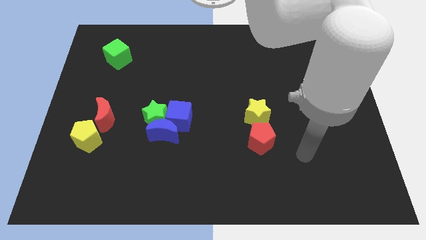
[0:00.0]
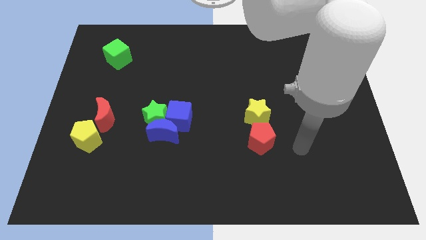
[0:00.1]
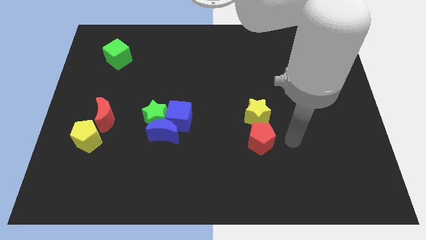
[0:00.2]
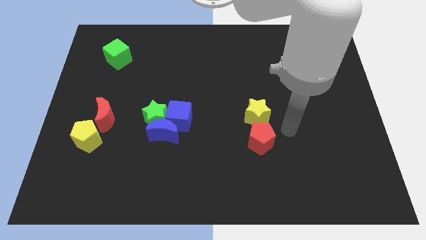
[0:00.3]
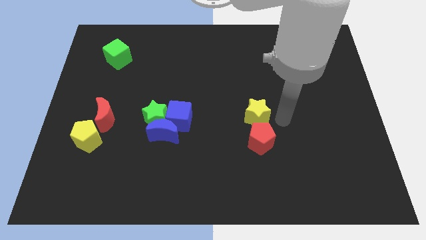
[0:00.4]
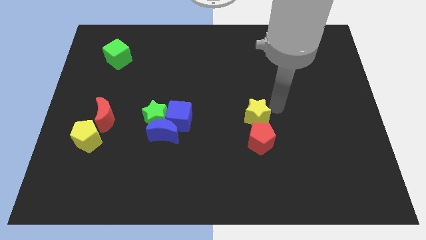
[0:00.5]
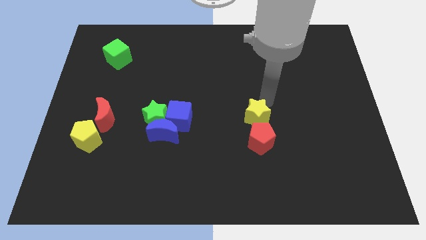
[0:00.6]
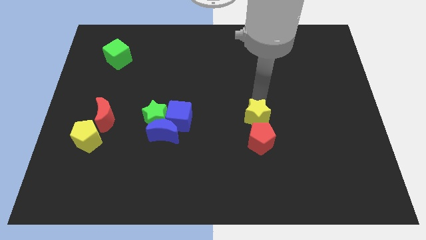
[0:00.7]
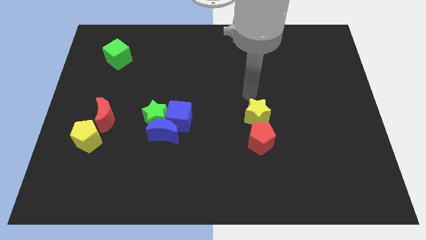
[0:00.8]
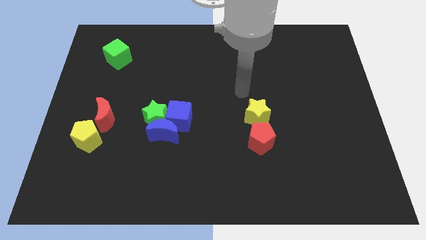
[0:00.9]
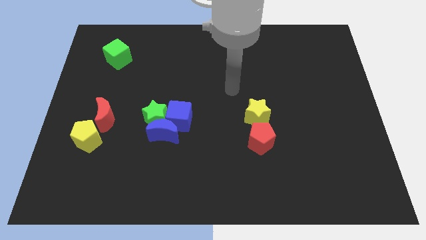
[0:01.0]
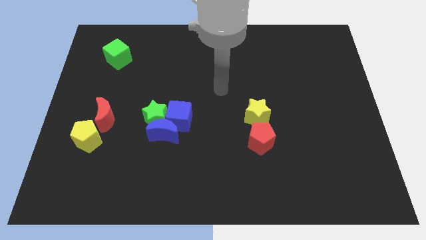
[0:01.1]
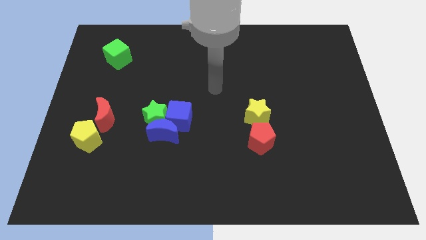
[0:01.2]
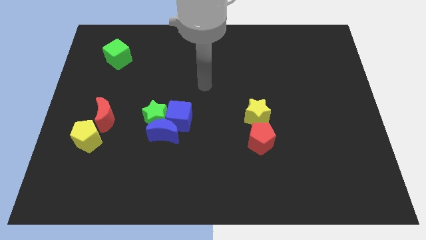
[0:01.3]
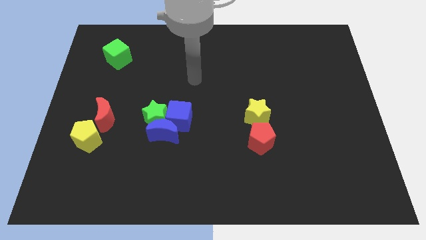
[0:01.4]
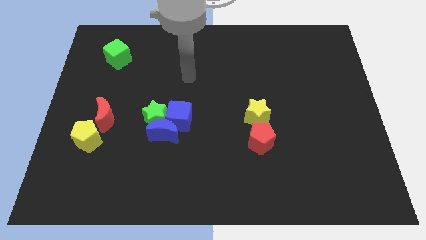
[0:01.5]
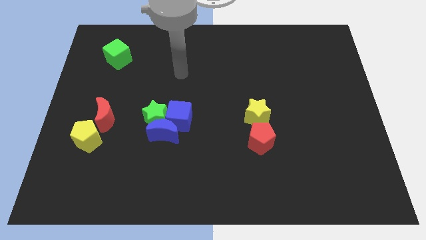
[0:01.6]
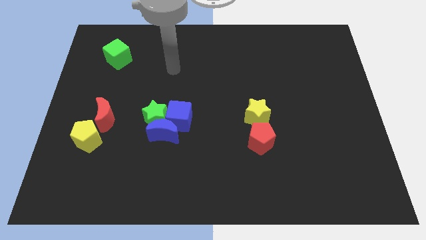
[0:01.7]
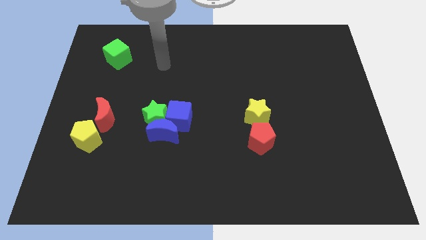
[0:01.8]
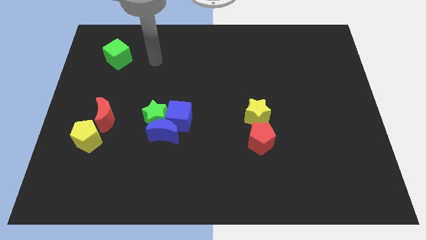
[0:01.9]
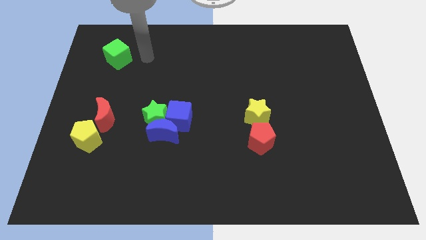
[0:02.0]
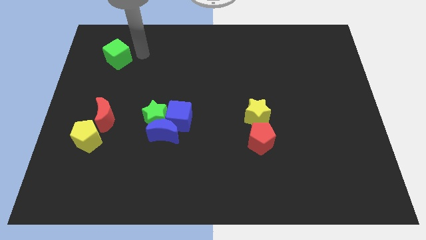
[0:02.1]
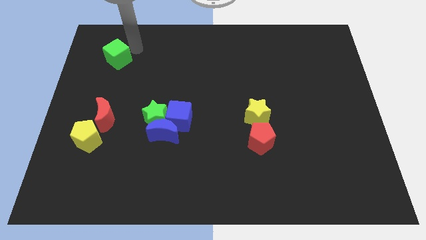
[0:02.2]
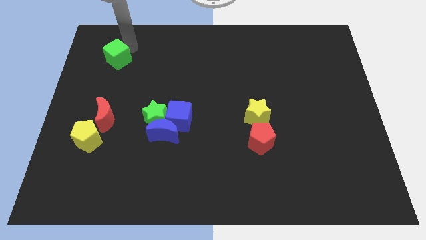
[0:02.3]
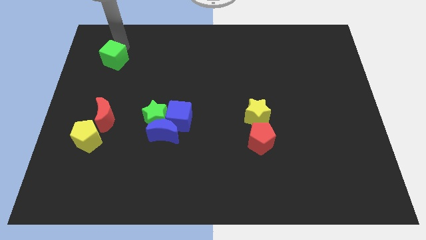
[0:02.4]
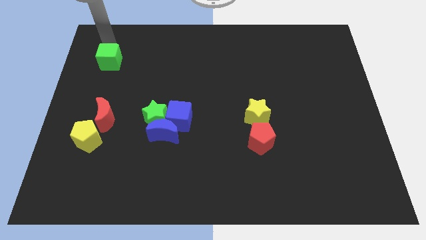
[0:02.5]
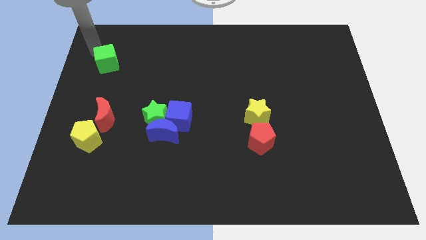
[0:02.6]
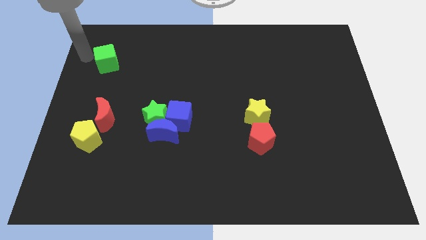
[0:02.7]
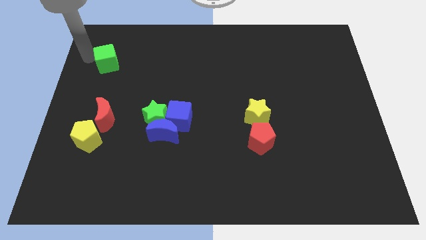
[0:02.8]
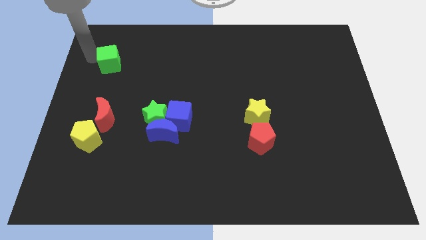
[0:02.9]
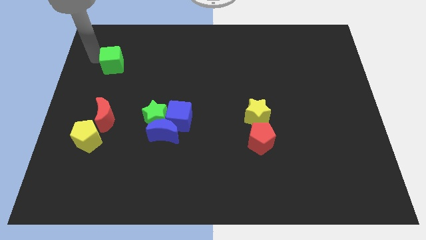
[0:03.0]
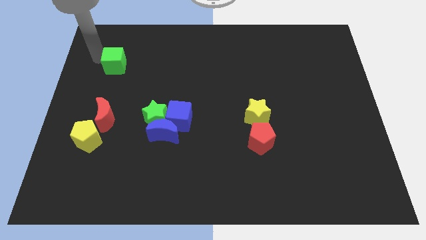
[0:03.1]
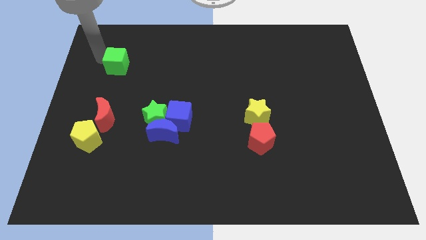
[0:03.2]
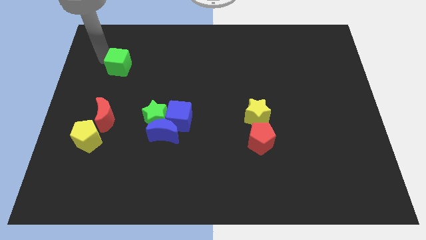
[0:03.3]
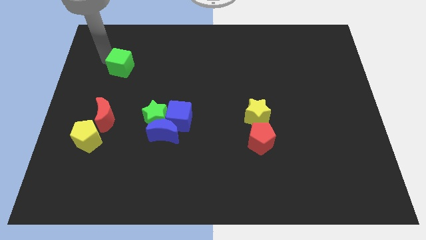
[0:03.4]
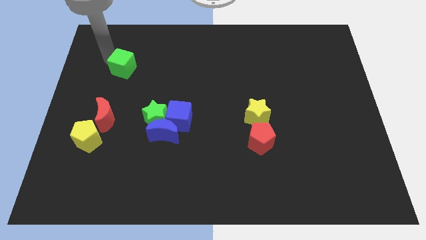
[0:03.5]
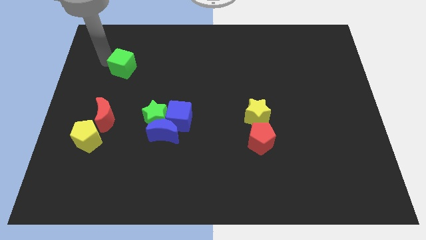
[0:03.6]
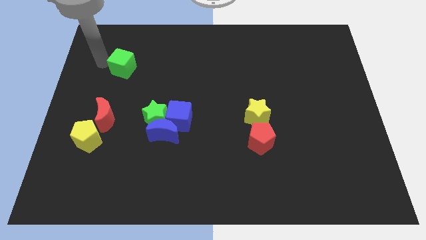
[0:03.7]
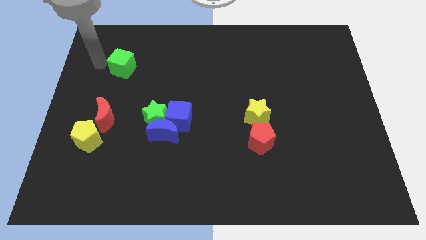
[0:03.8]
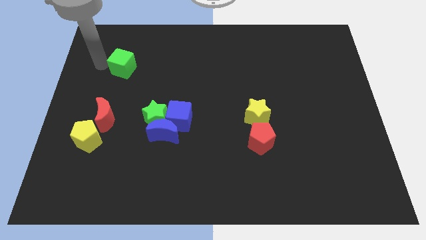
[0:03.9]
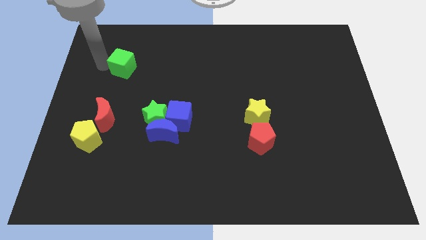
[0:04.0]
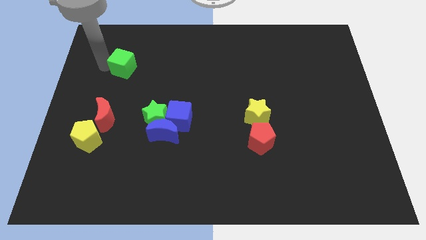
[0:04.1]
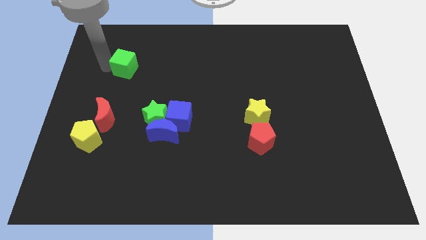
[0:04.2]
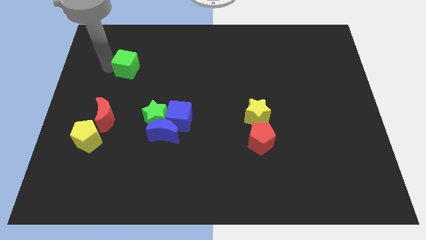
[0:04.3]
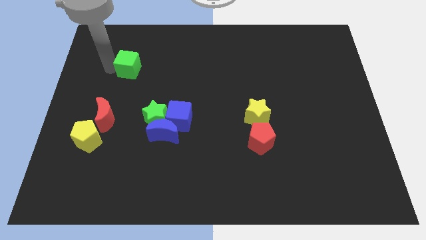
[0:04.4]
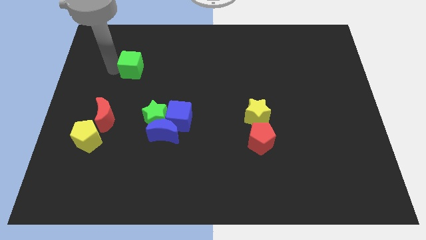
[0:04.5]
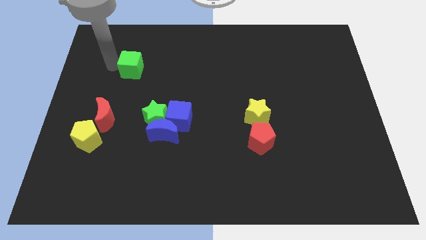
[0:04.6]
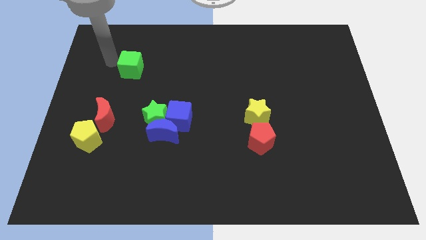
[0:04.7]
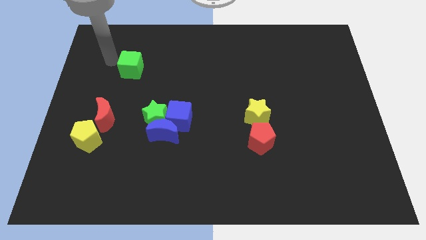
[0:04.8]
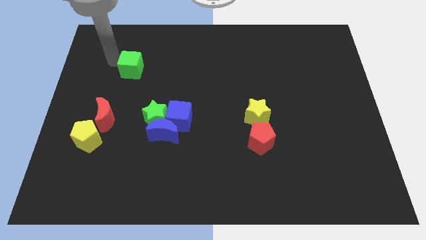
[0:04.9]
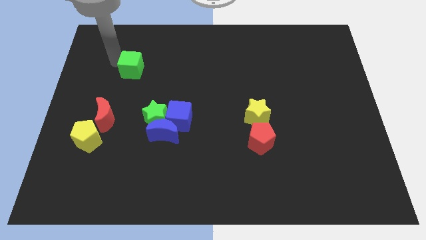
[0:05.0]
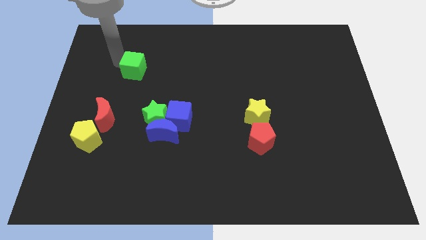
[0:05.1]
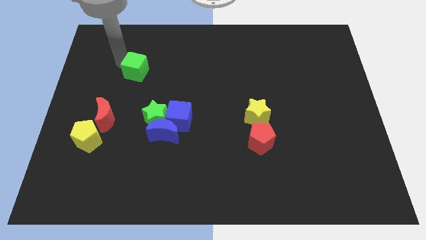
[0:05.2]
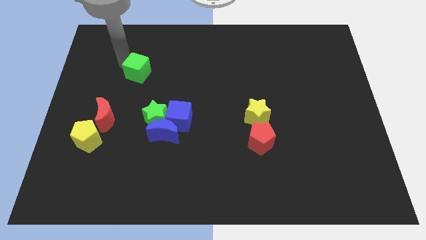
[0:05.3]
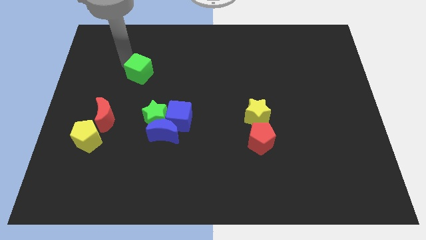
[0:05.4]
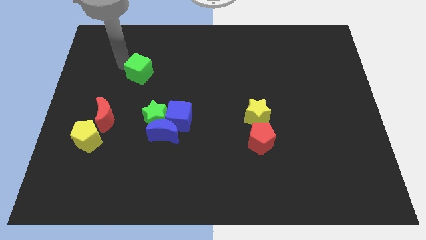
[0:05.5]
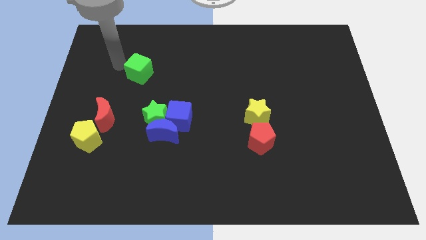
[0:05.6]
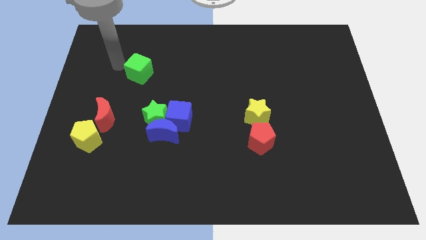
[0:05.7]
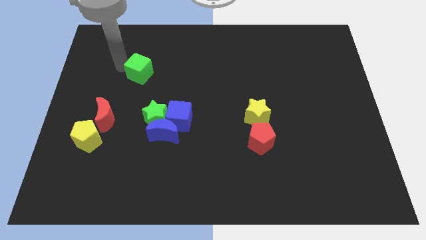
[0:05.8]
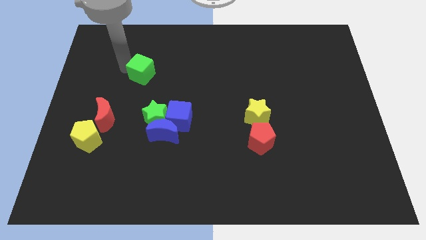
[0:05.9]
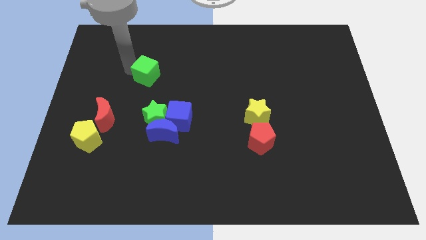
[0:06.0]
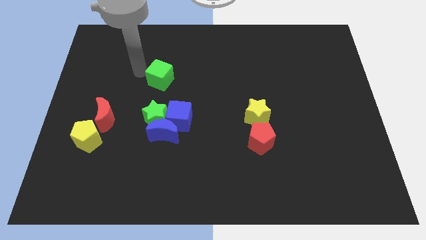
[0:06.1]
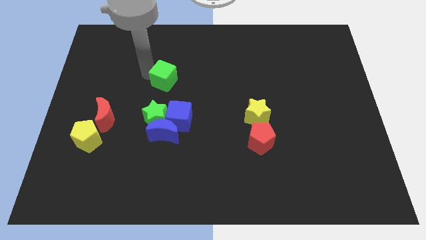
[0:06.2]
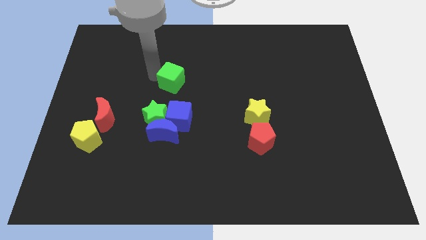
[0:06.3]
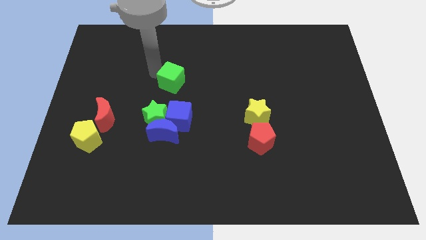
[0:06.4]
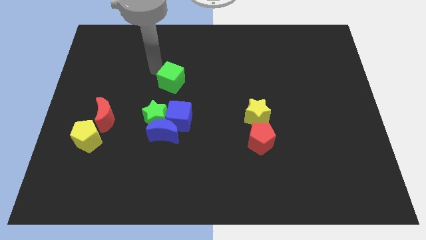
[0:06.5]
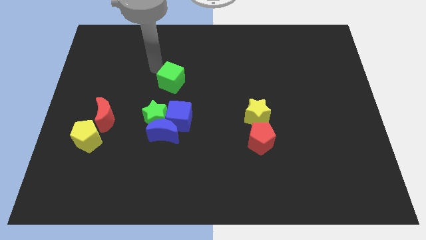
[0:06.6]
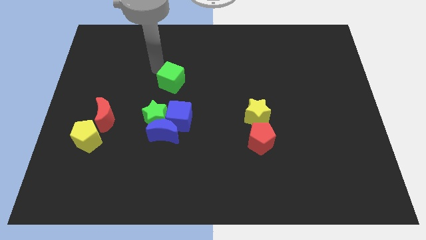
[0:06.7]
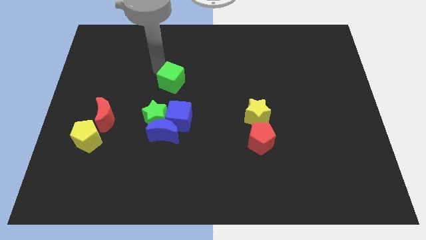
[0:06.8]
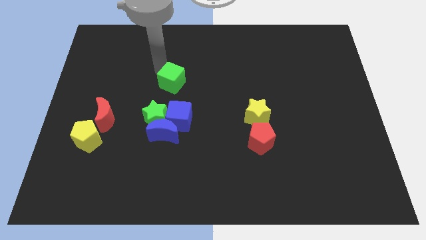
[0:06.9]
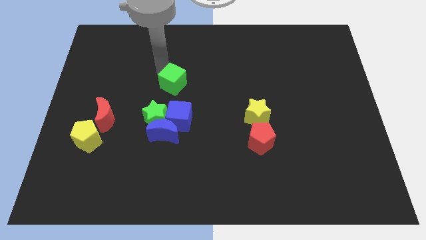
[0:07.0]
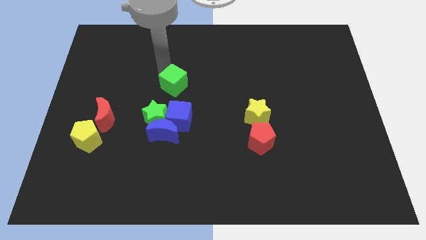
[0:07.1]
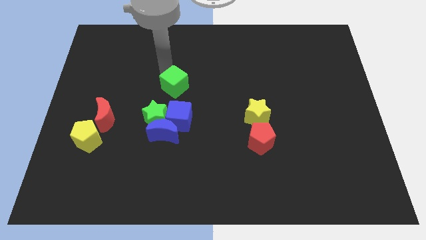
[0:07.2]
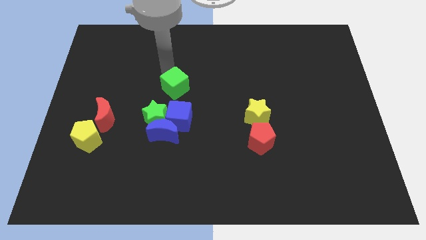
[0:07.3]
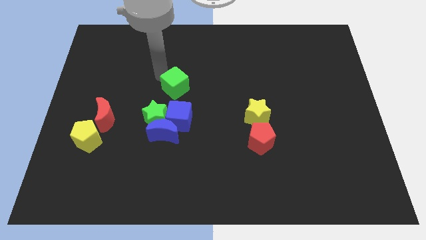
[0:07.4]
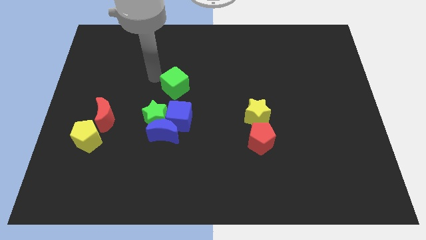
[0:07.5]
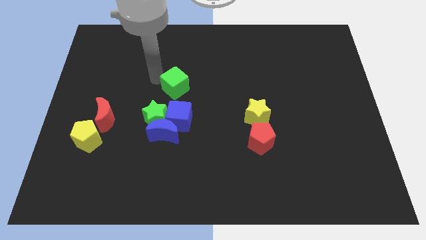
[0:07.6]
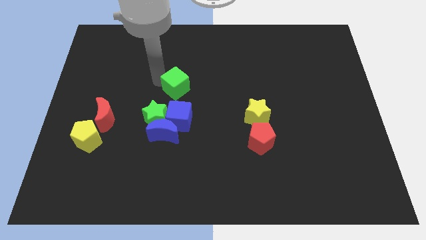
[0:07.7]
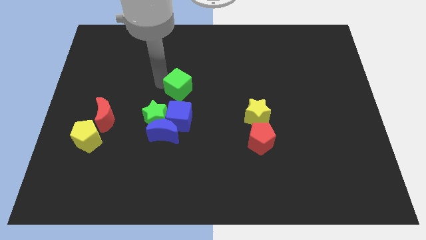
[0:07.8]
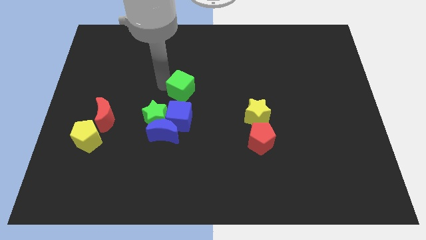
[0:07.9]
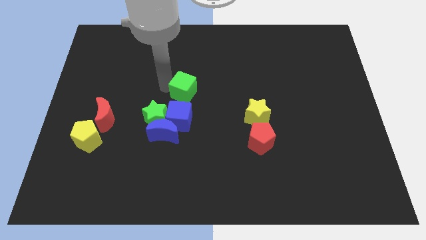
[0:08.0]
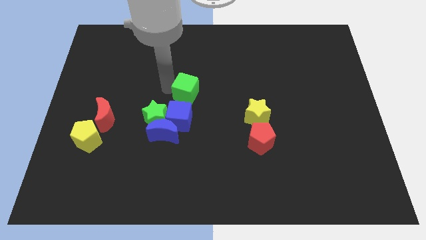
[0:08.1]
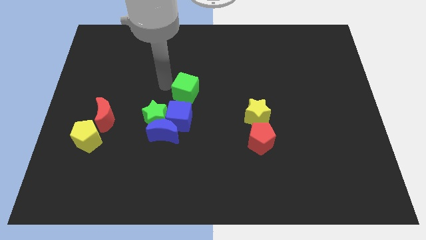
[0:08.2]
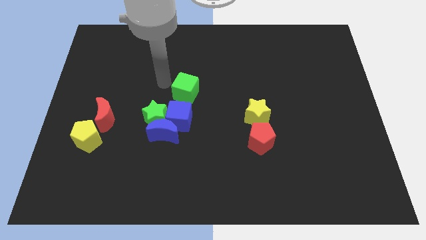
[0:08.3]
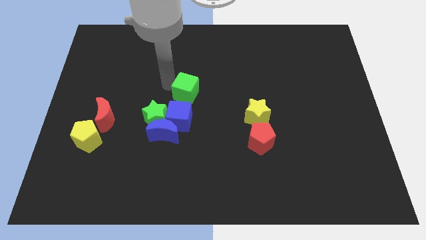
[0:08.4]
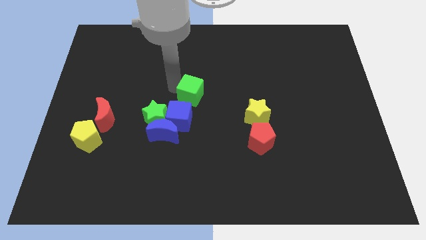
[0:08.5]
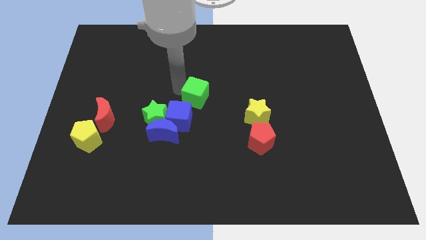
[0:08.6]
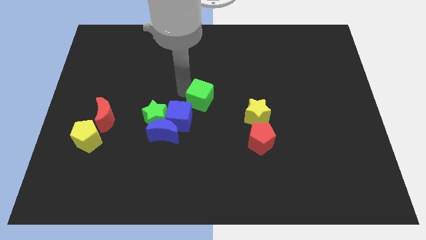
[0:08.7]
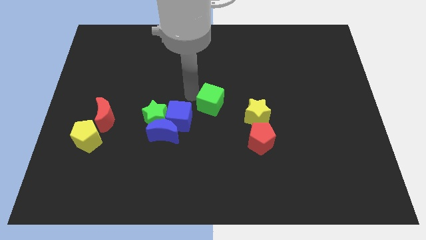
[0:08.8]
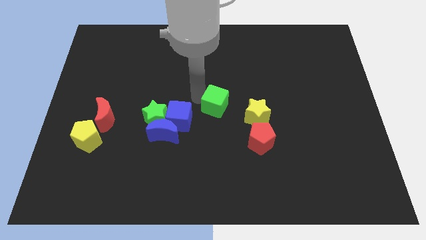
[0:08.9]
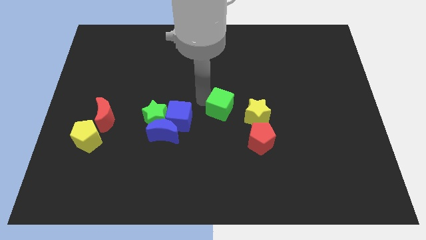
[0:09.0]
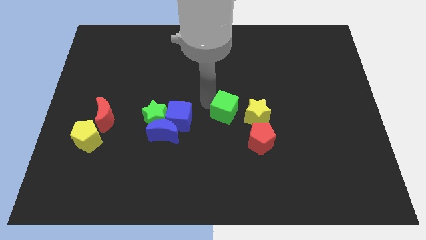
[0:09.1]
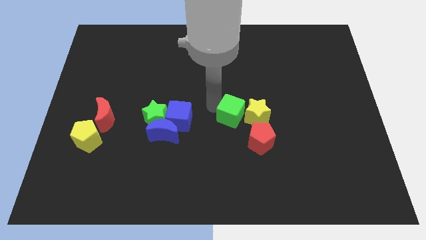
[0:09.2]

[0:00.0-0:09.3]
slide the green cube to the yellow star
